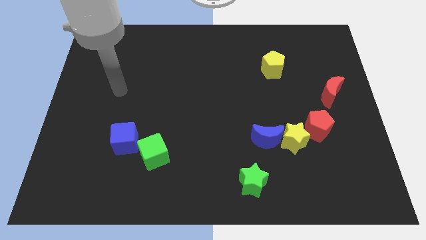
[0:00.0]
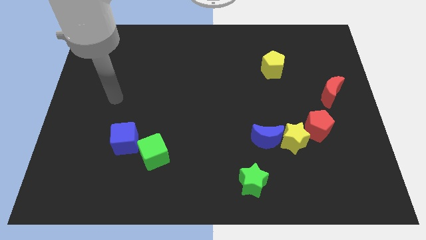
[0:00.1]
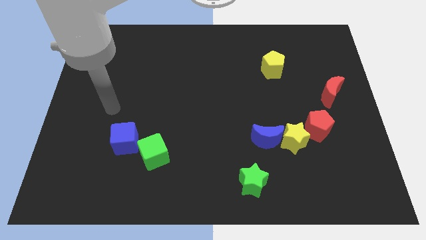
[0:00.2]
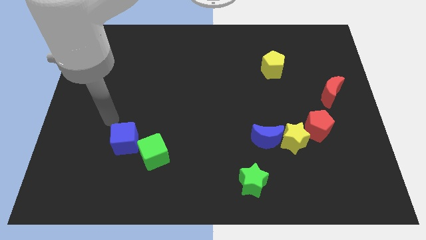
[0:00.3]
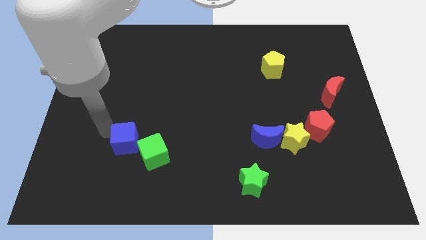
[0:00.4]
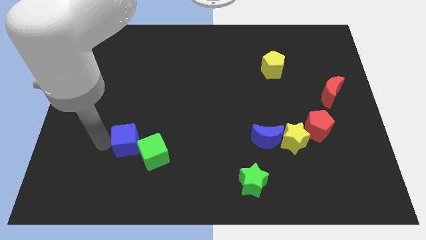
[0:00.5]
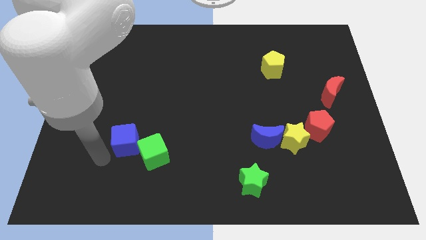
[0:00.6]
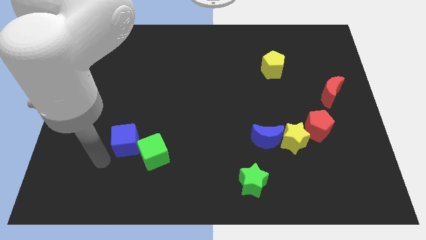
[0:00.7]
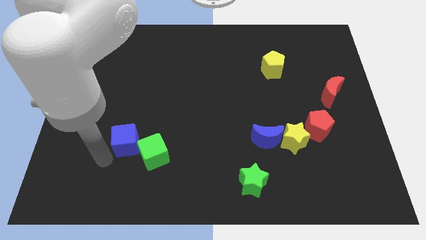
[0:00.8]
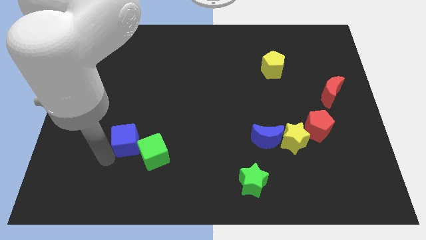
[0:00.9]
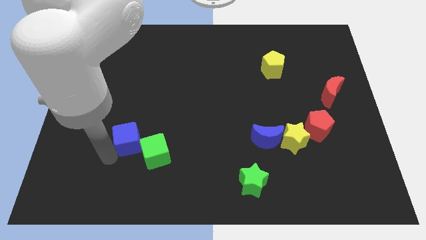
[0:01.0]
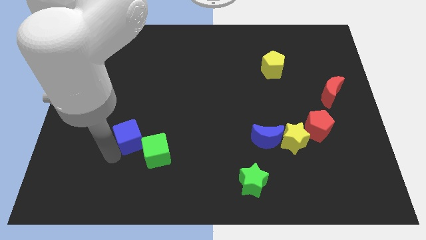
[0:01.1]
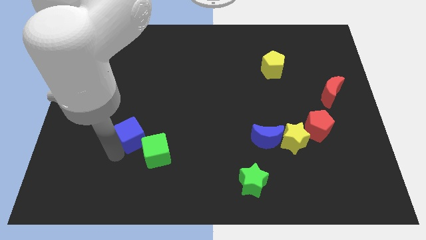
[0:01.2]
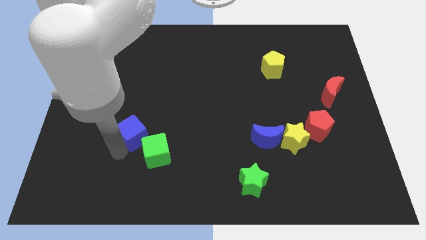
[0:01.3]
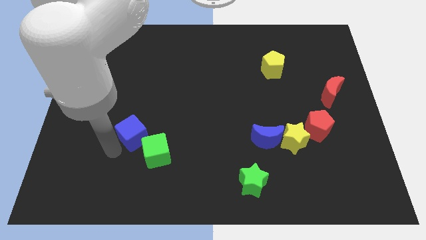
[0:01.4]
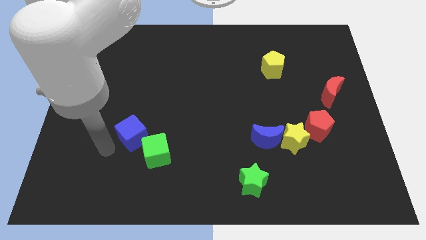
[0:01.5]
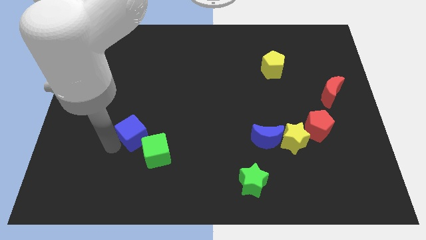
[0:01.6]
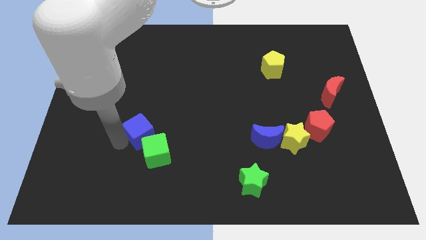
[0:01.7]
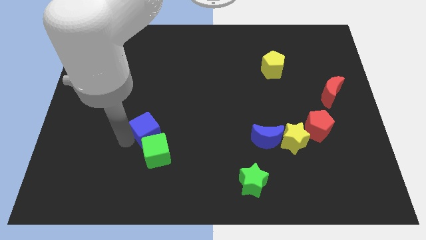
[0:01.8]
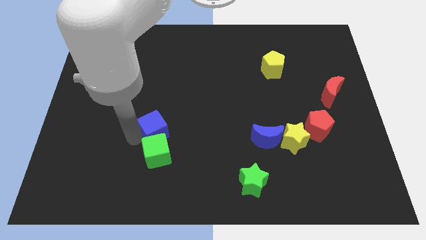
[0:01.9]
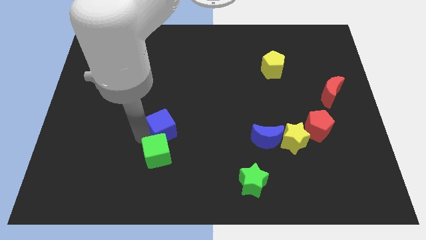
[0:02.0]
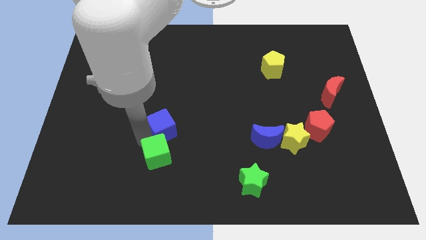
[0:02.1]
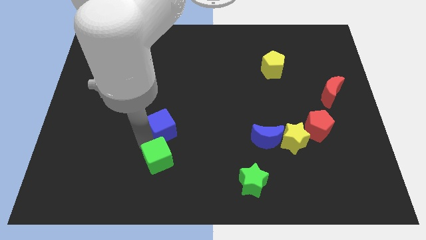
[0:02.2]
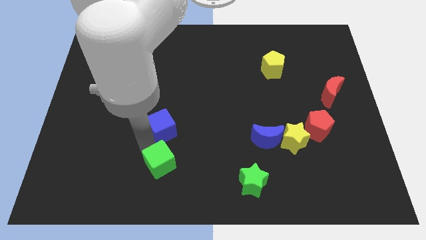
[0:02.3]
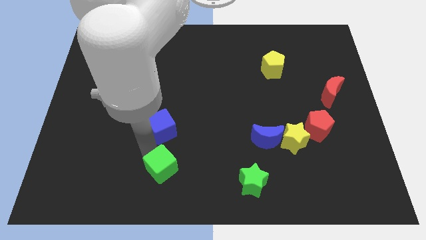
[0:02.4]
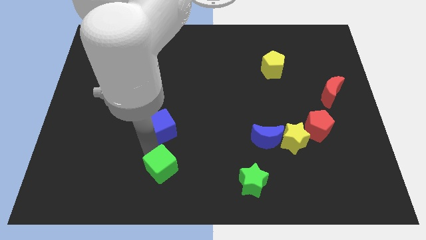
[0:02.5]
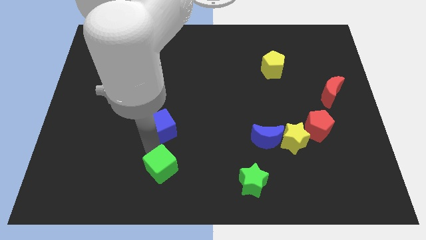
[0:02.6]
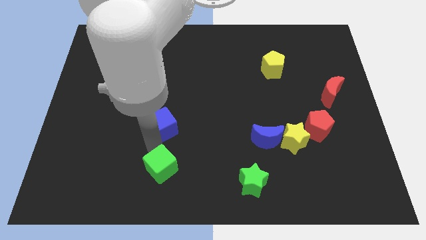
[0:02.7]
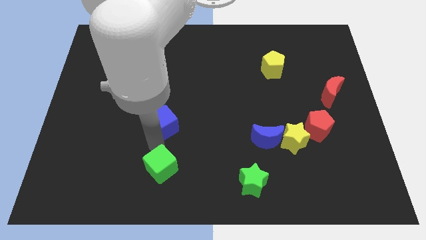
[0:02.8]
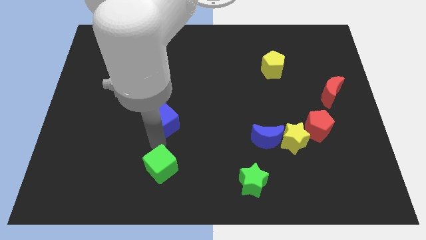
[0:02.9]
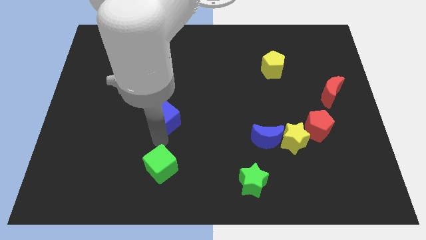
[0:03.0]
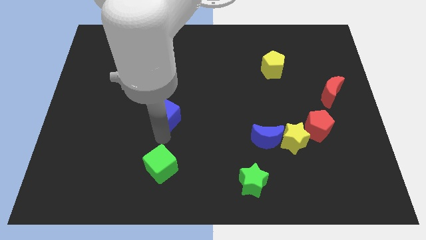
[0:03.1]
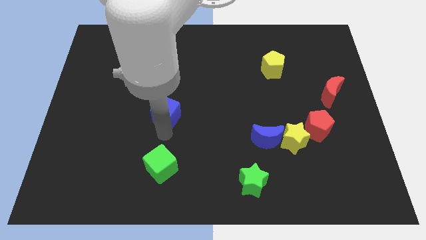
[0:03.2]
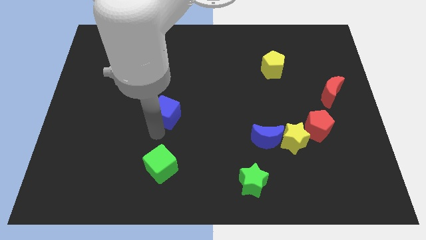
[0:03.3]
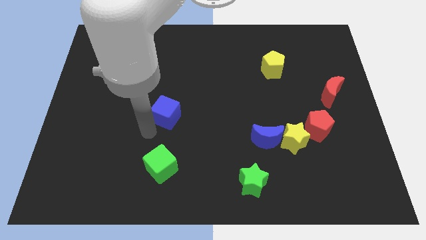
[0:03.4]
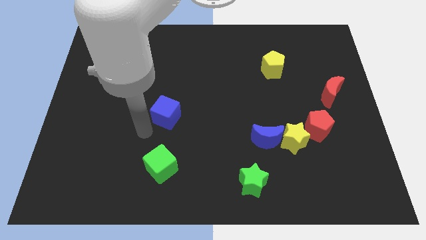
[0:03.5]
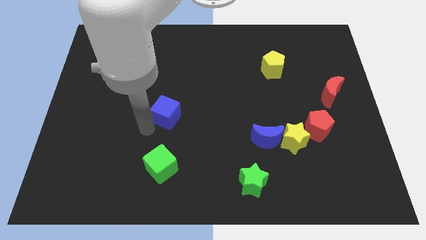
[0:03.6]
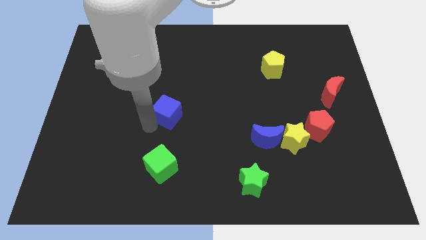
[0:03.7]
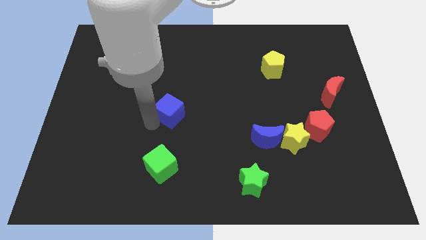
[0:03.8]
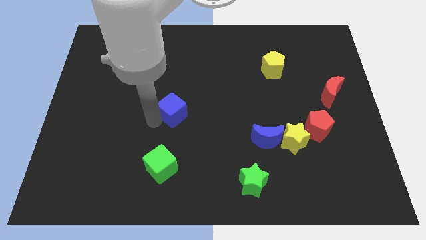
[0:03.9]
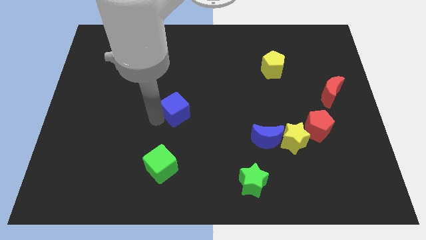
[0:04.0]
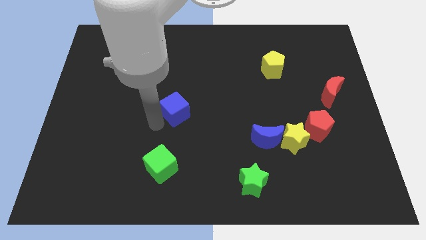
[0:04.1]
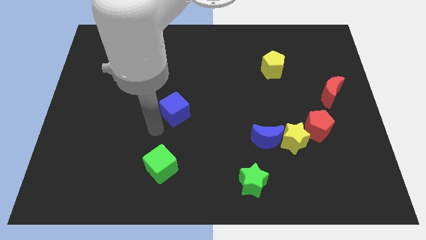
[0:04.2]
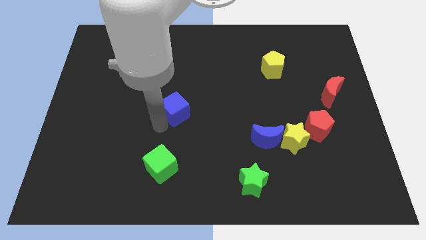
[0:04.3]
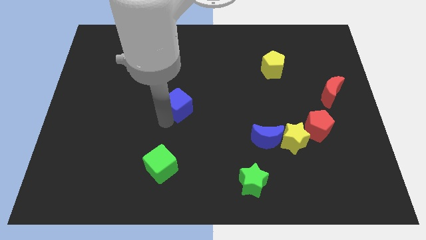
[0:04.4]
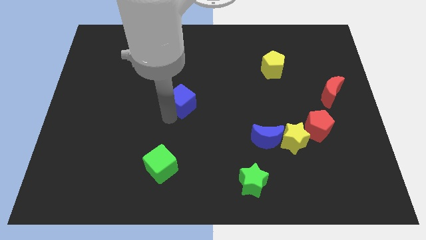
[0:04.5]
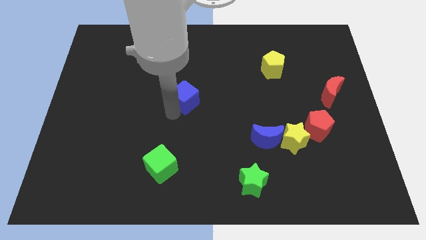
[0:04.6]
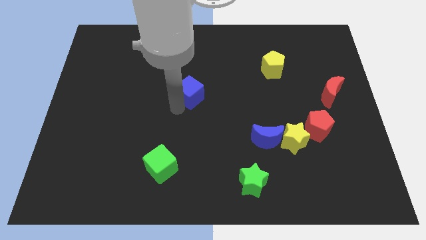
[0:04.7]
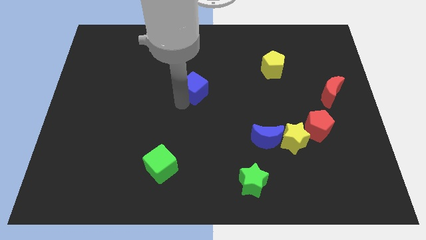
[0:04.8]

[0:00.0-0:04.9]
push the blue cube upwards and to the right

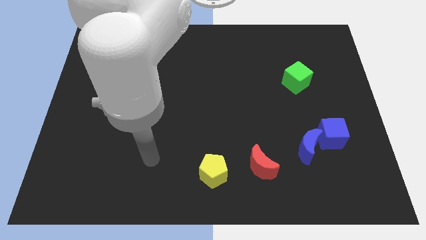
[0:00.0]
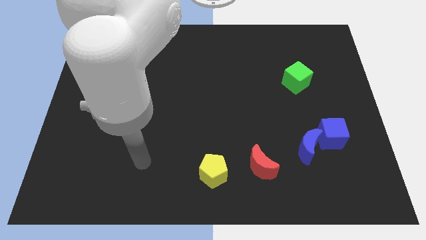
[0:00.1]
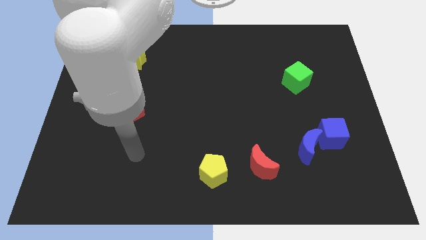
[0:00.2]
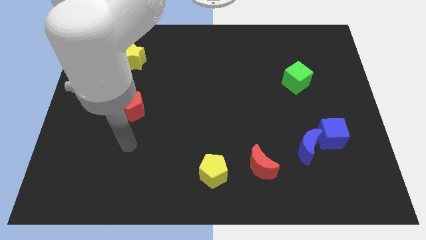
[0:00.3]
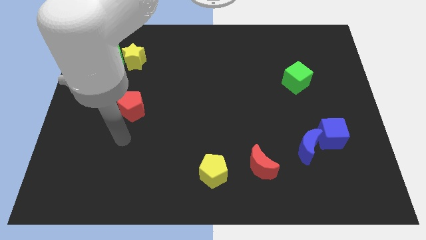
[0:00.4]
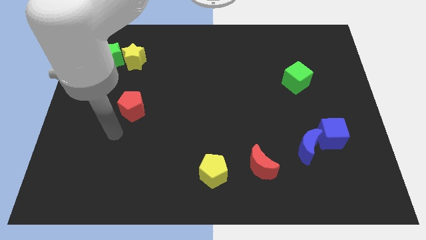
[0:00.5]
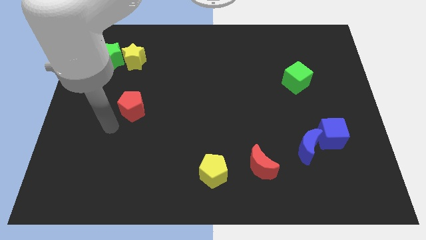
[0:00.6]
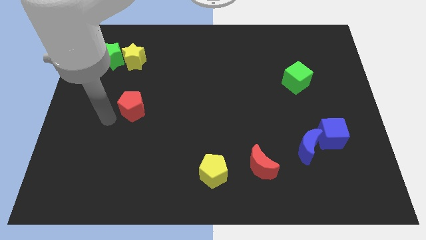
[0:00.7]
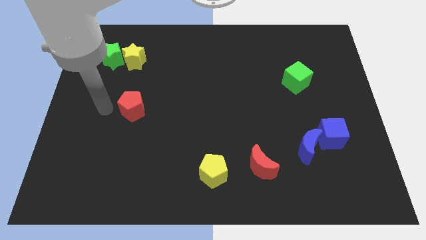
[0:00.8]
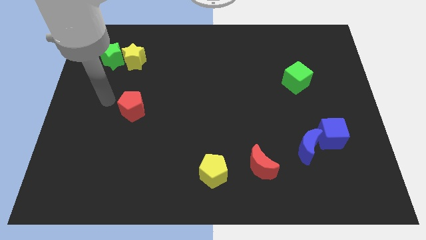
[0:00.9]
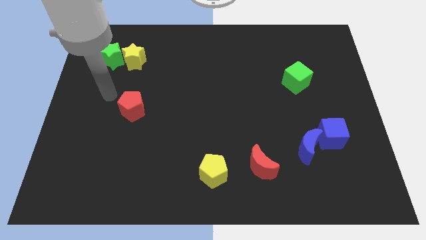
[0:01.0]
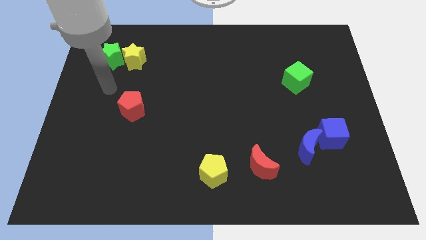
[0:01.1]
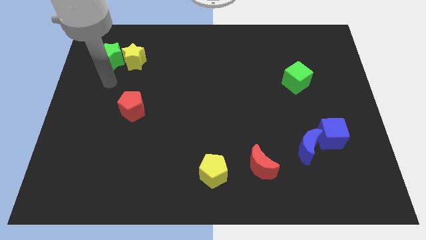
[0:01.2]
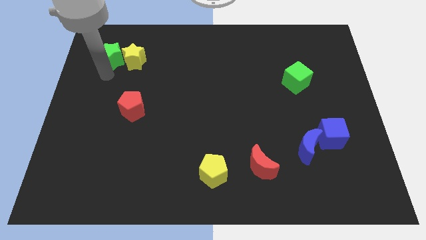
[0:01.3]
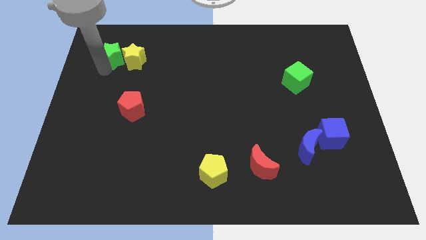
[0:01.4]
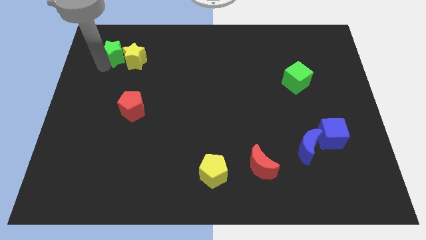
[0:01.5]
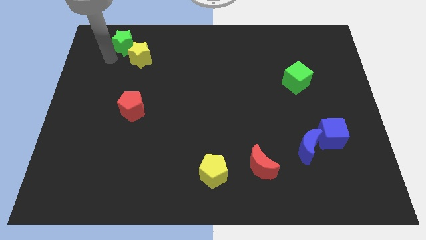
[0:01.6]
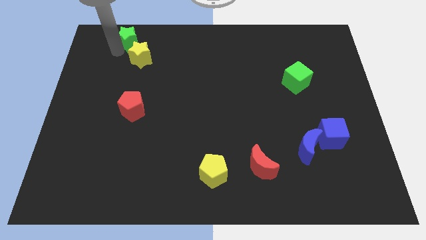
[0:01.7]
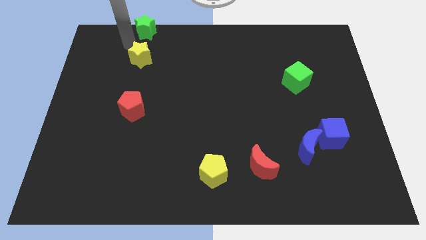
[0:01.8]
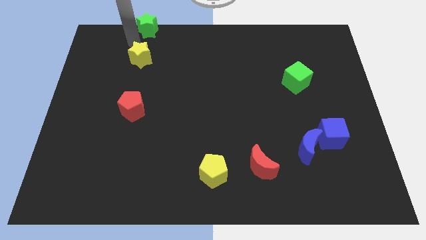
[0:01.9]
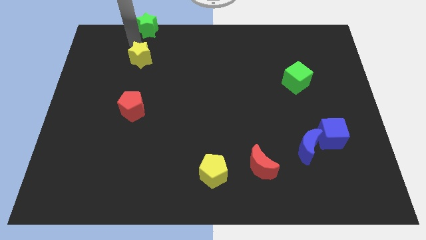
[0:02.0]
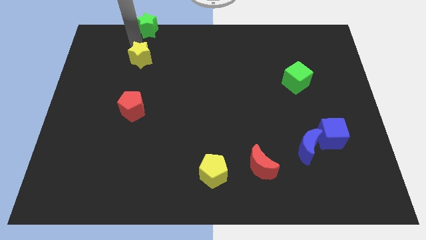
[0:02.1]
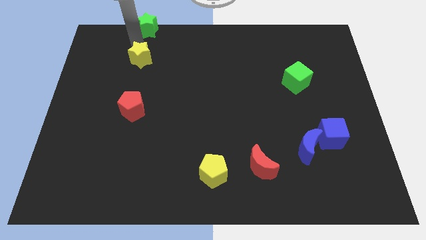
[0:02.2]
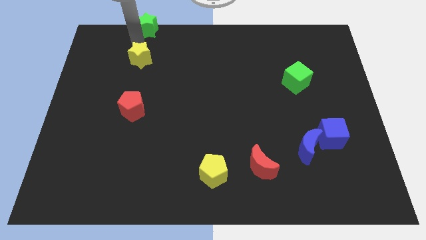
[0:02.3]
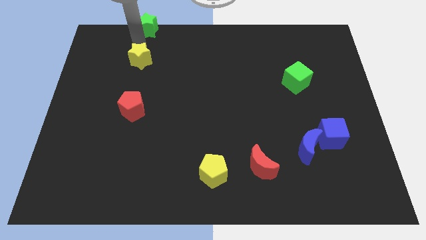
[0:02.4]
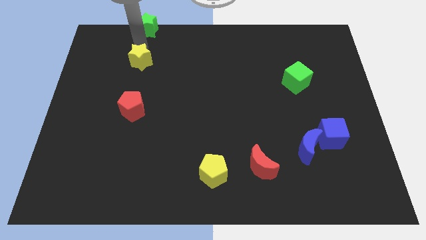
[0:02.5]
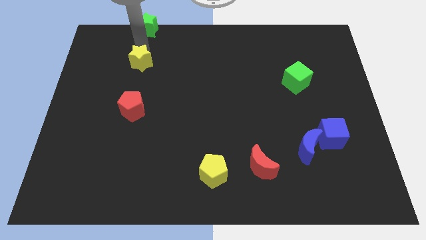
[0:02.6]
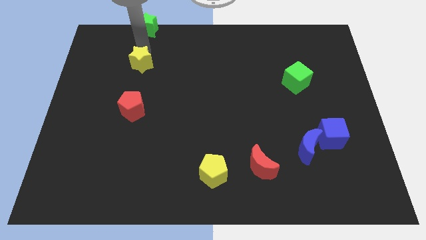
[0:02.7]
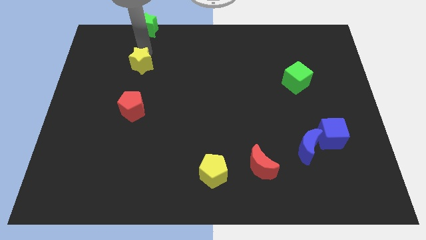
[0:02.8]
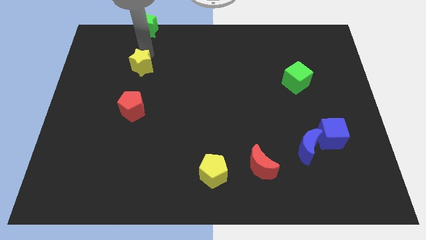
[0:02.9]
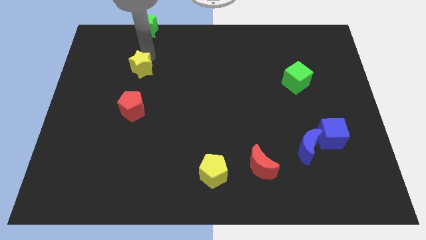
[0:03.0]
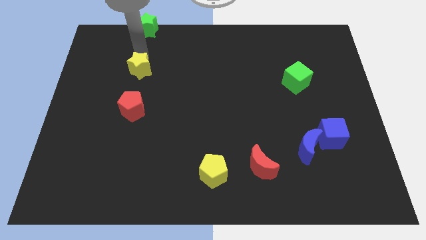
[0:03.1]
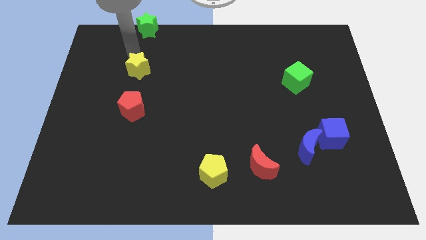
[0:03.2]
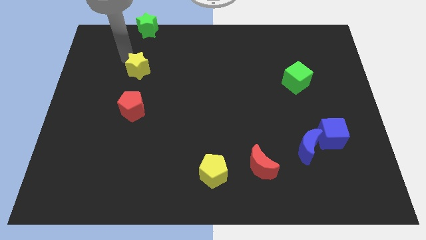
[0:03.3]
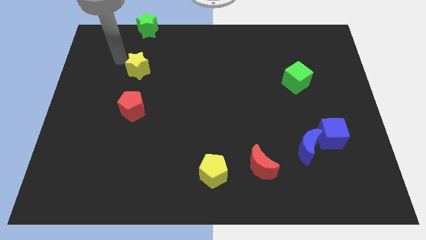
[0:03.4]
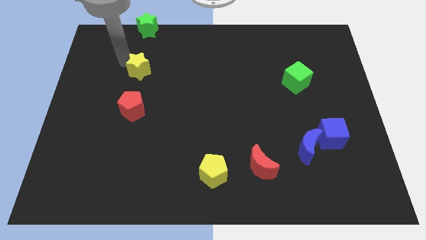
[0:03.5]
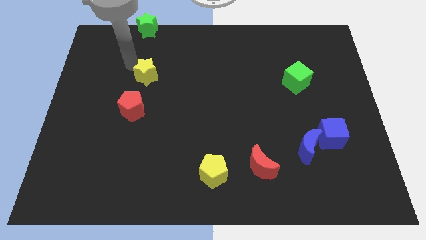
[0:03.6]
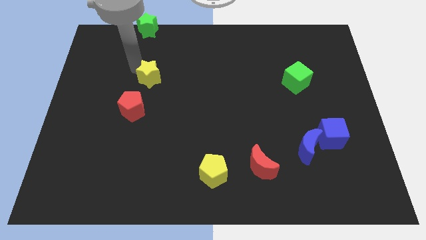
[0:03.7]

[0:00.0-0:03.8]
slightly slide the yellow star down and to the right
